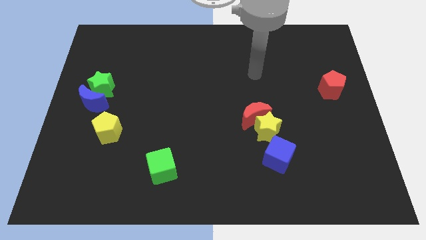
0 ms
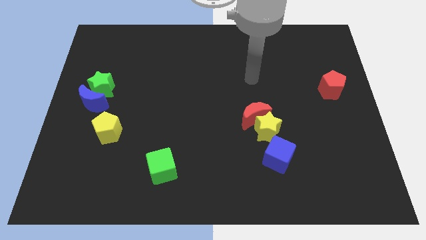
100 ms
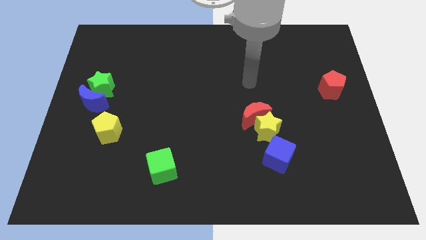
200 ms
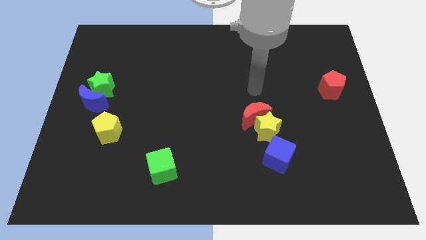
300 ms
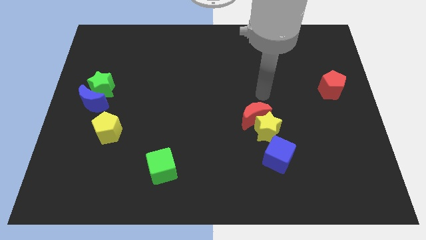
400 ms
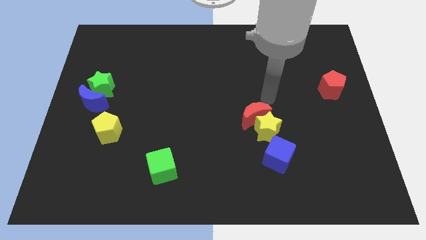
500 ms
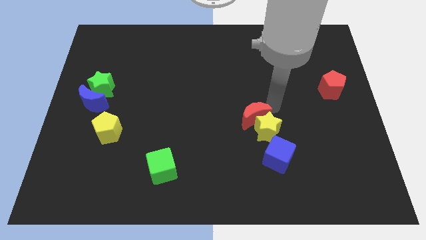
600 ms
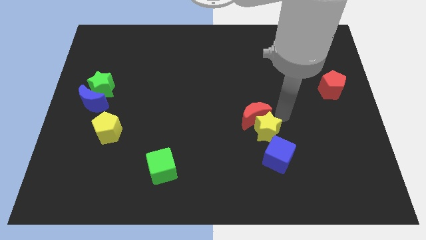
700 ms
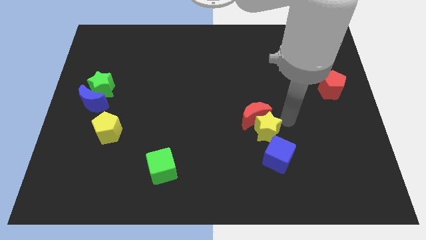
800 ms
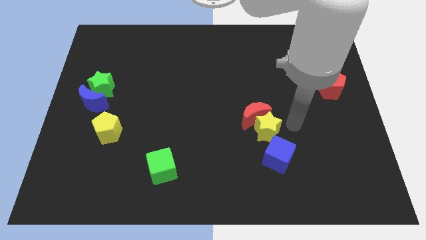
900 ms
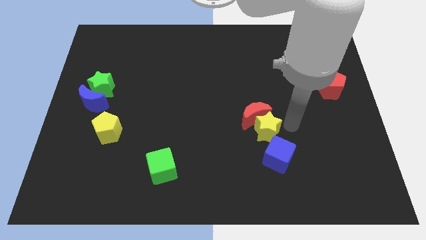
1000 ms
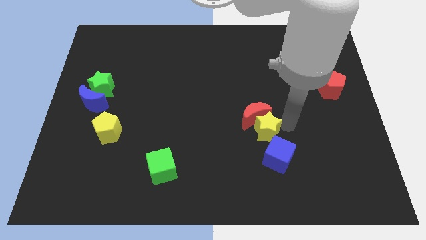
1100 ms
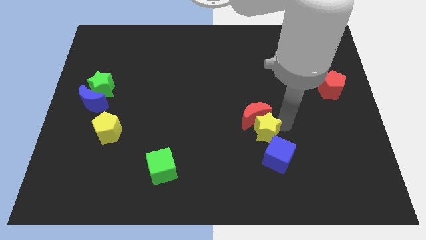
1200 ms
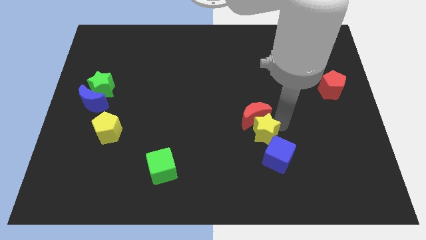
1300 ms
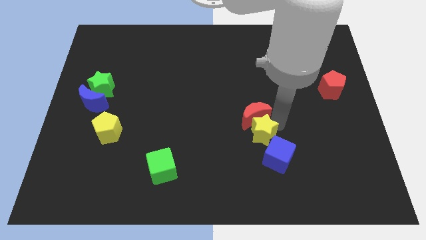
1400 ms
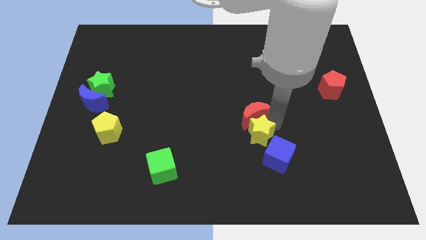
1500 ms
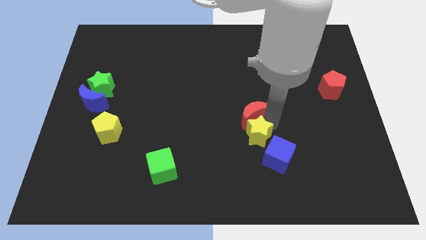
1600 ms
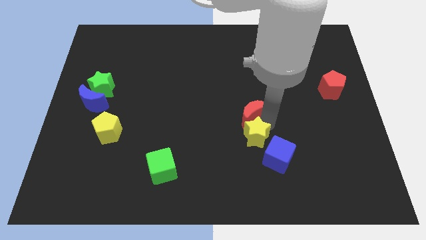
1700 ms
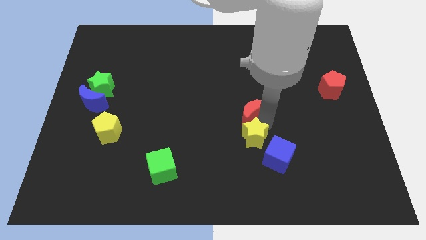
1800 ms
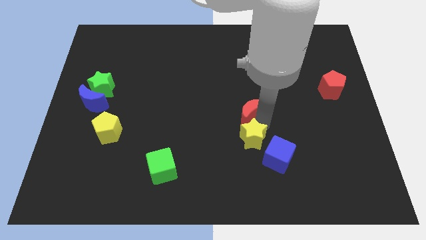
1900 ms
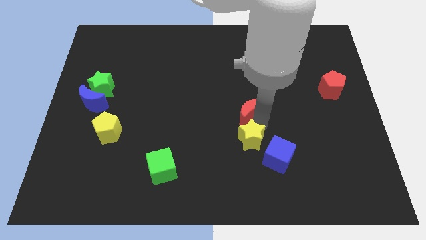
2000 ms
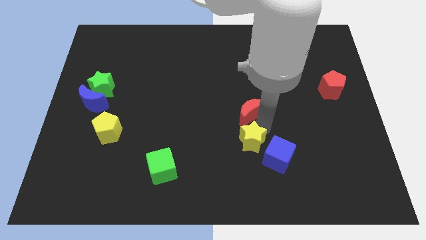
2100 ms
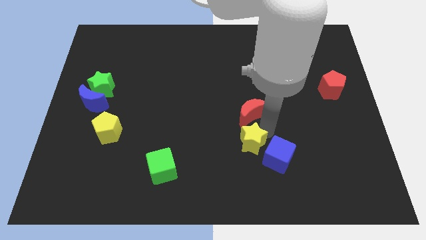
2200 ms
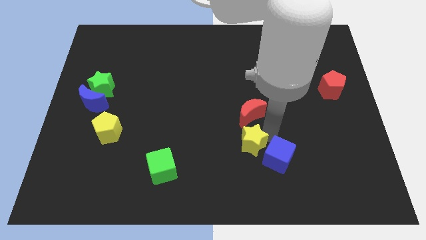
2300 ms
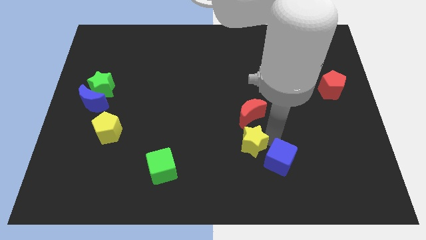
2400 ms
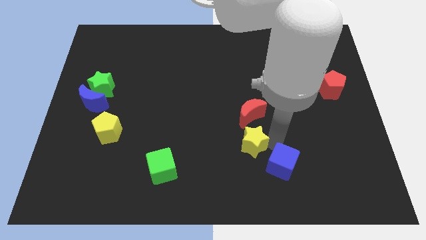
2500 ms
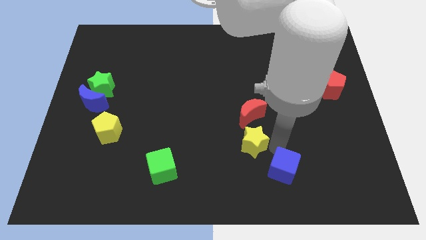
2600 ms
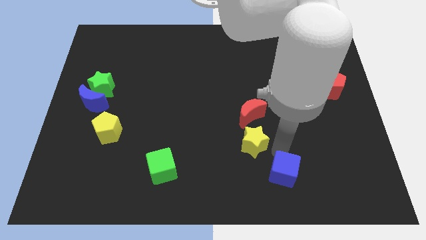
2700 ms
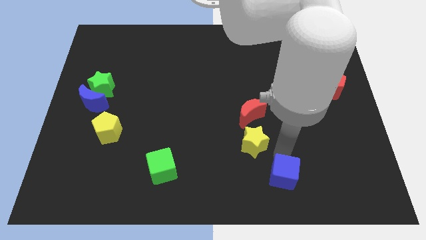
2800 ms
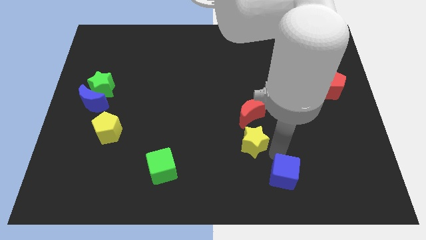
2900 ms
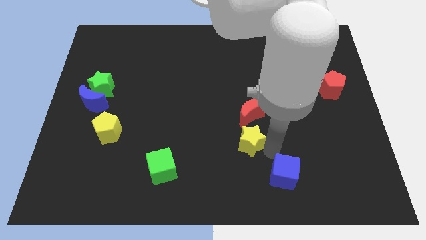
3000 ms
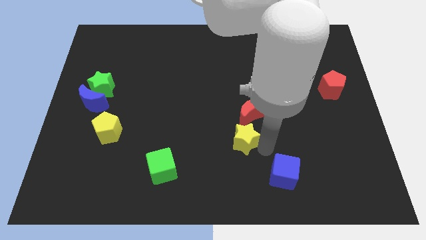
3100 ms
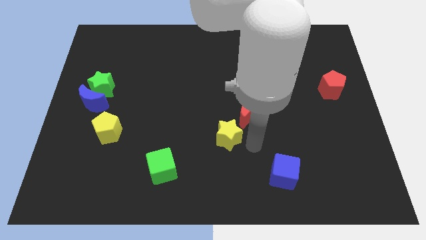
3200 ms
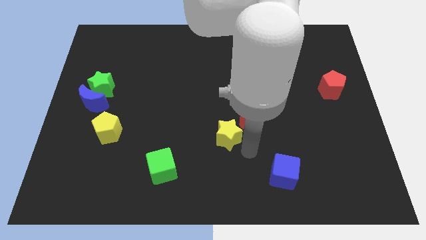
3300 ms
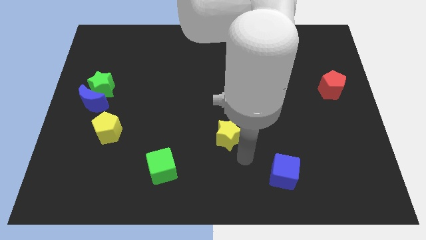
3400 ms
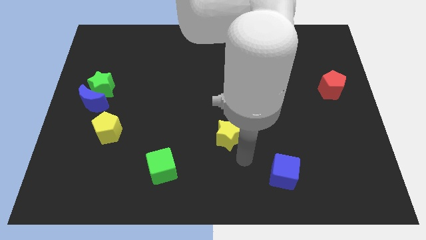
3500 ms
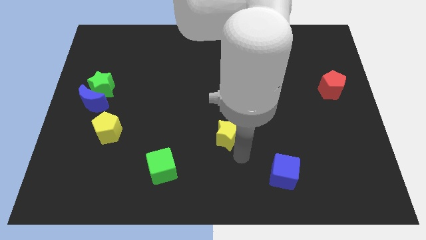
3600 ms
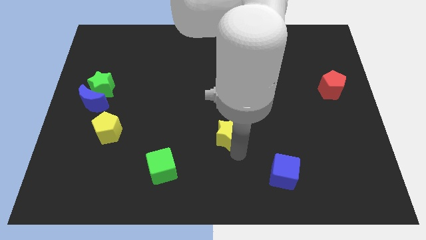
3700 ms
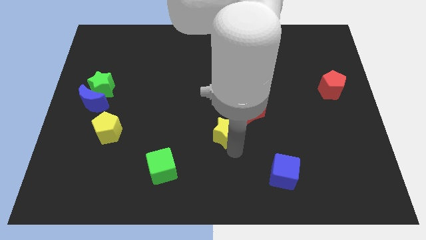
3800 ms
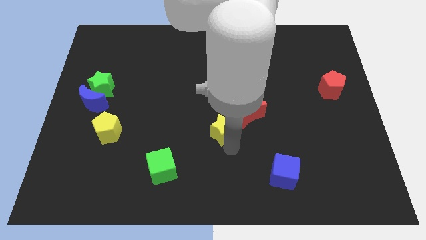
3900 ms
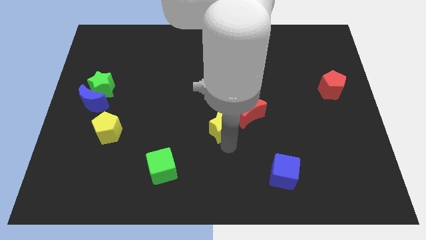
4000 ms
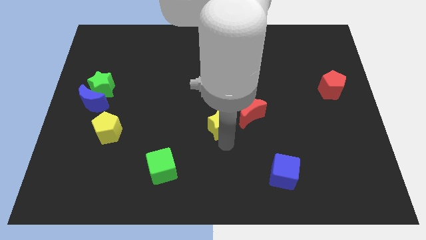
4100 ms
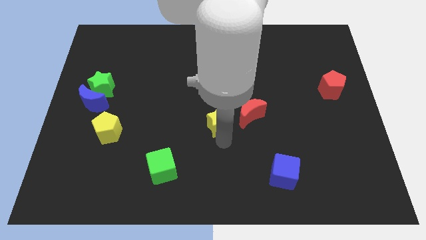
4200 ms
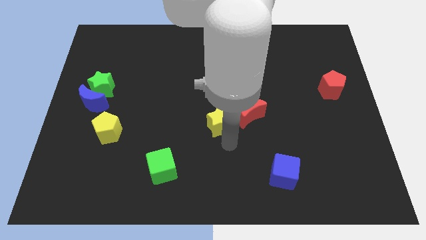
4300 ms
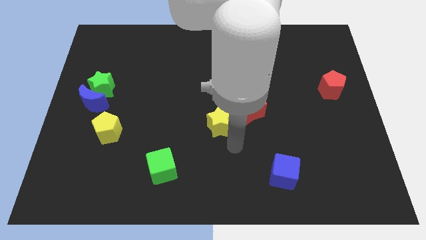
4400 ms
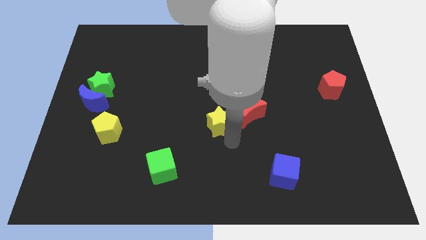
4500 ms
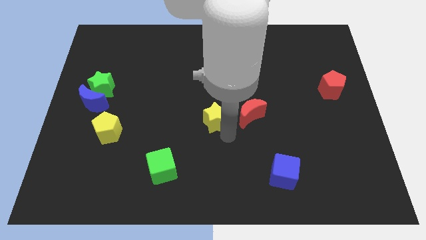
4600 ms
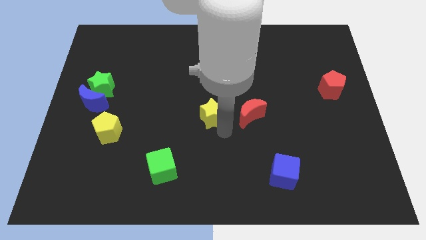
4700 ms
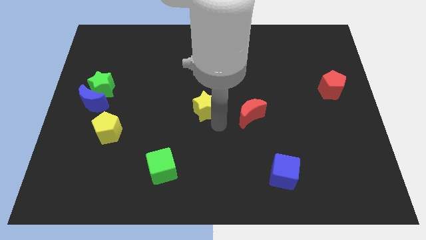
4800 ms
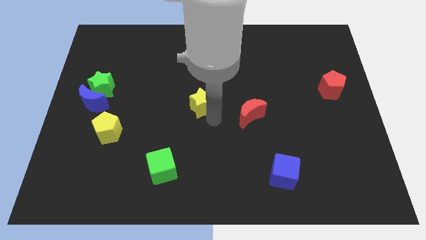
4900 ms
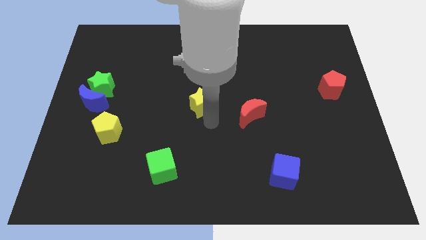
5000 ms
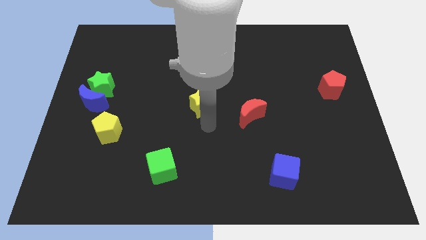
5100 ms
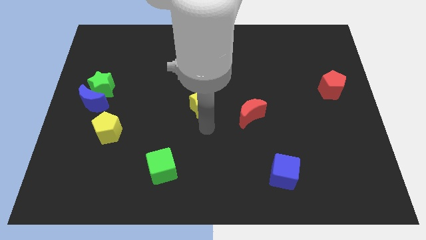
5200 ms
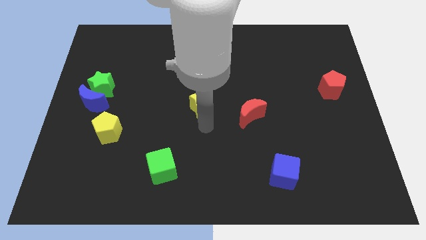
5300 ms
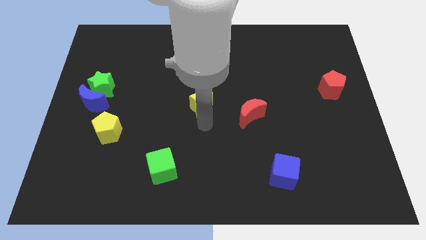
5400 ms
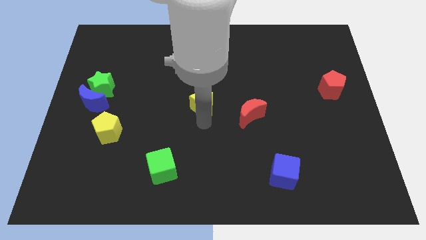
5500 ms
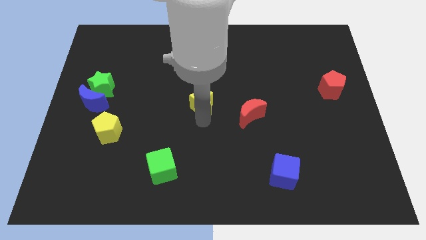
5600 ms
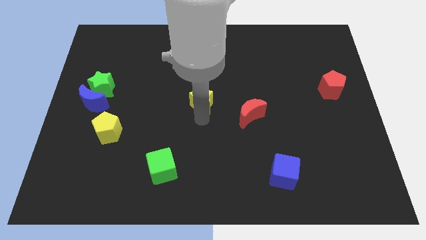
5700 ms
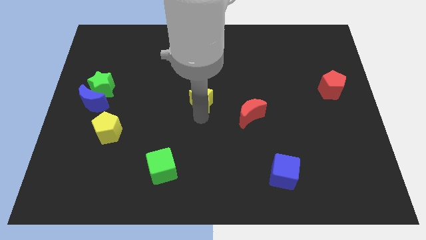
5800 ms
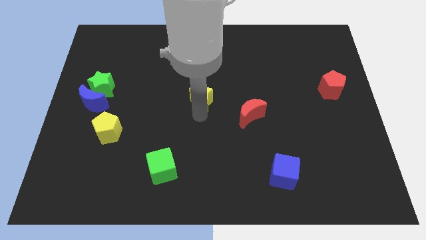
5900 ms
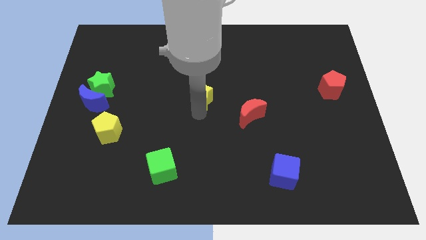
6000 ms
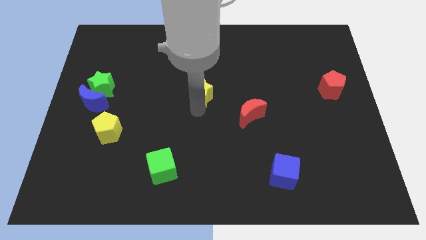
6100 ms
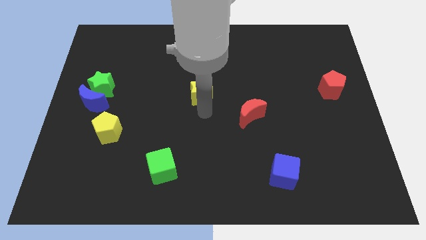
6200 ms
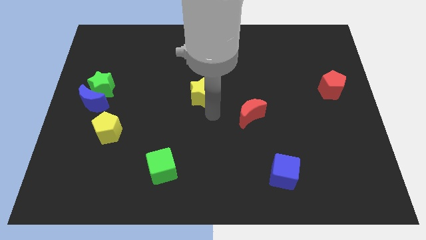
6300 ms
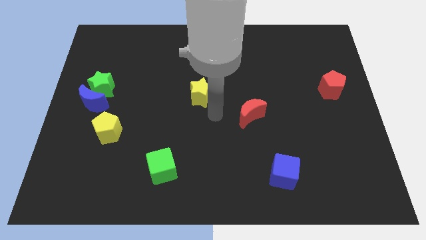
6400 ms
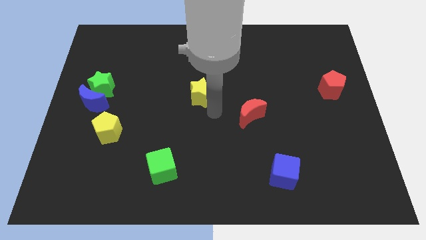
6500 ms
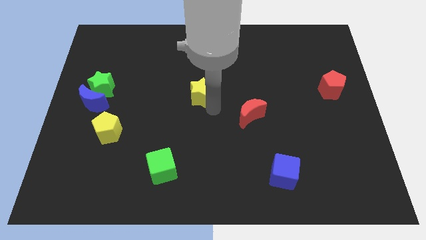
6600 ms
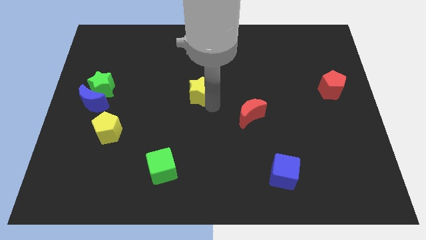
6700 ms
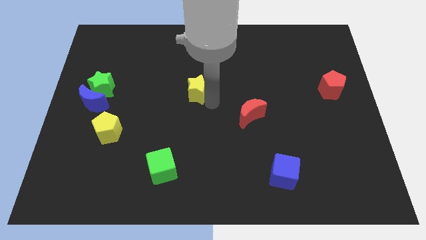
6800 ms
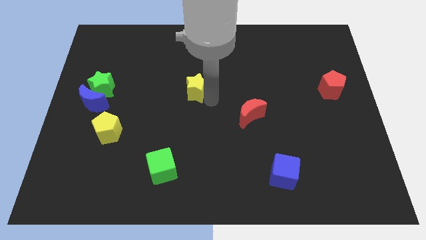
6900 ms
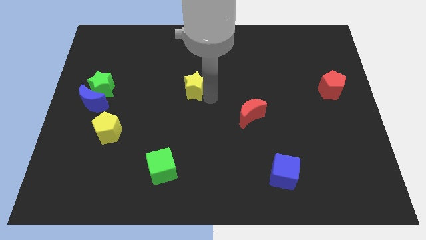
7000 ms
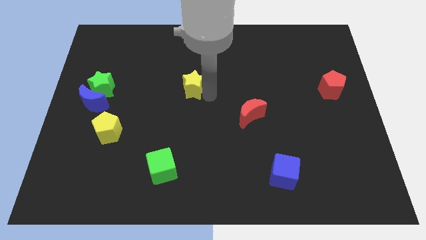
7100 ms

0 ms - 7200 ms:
slide the yellow star upwards and to the left diagonally

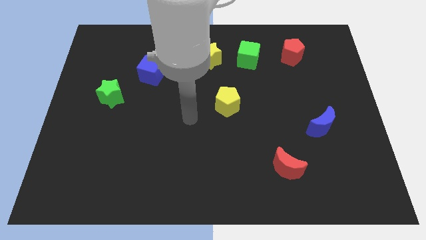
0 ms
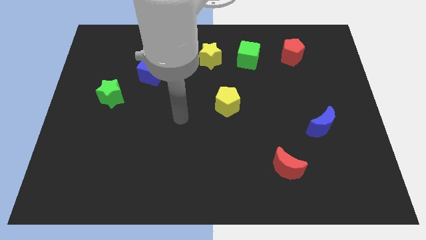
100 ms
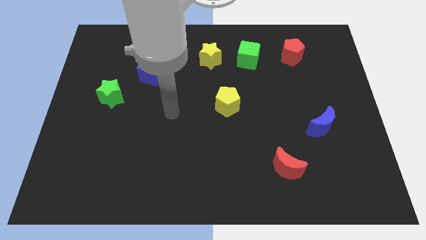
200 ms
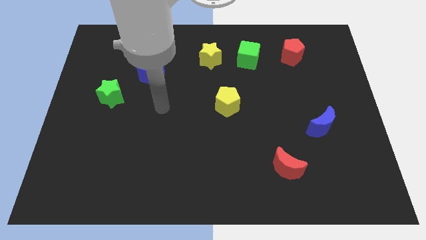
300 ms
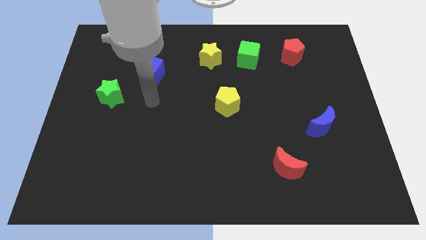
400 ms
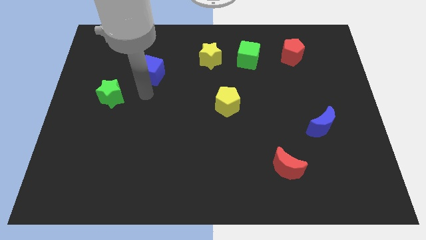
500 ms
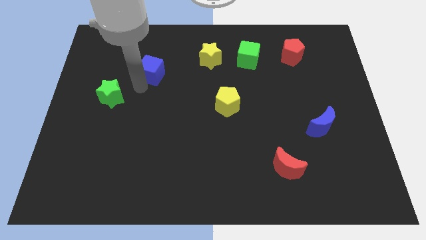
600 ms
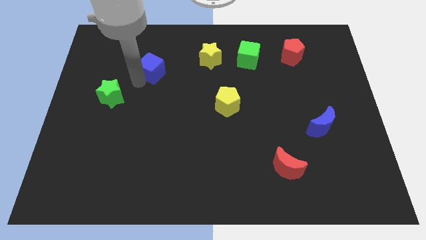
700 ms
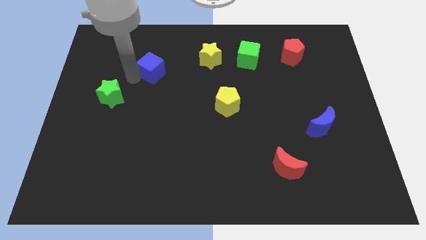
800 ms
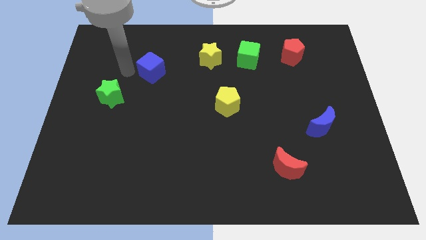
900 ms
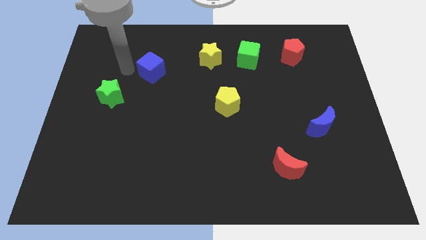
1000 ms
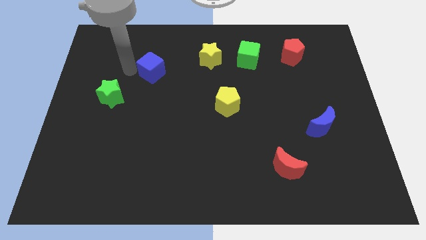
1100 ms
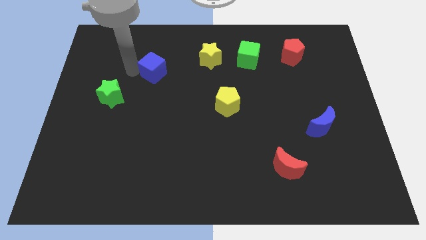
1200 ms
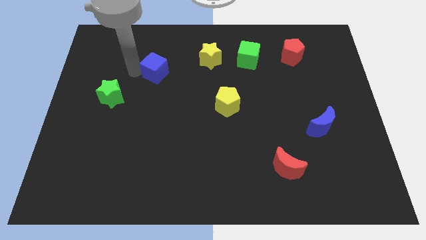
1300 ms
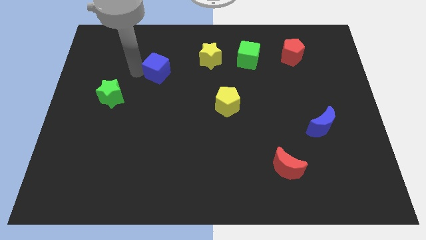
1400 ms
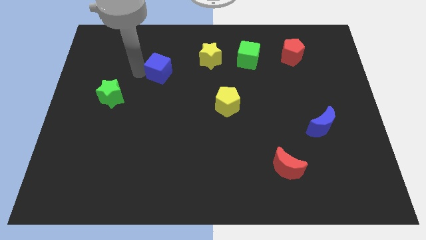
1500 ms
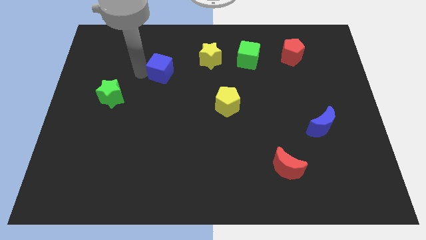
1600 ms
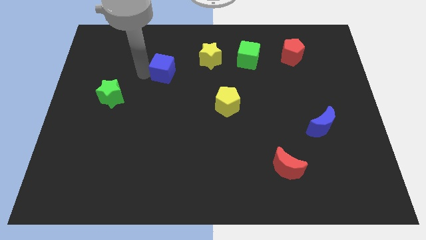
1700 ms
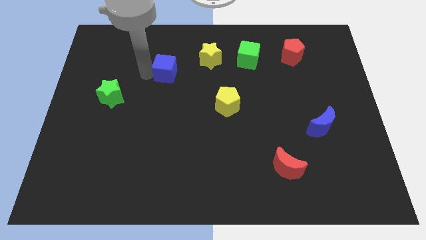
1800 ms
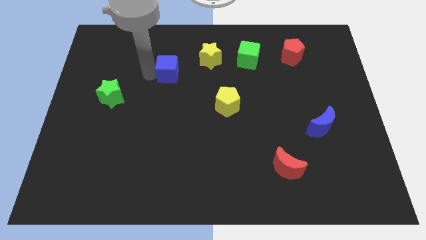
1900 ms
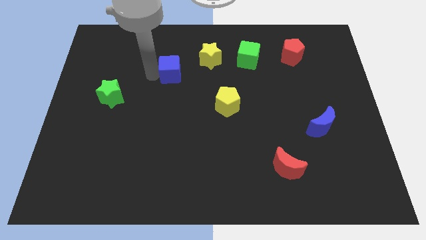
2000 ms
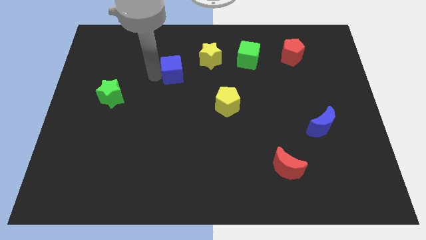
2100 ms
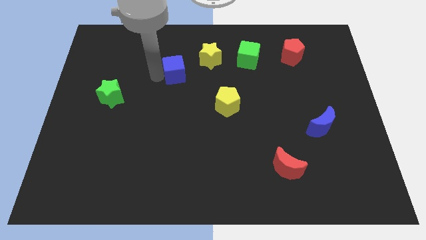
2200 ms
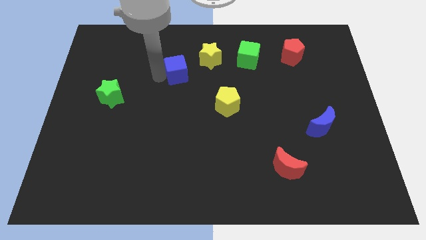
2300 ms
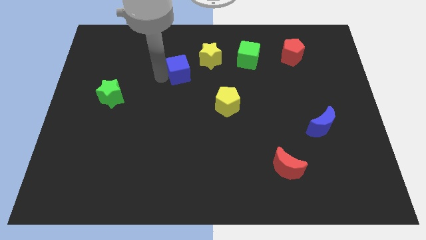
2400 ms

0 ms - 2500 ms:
move the blue cube a bit right
